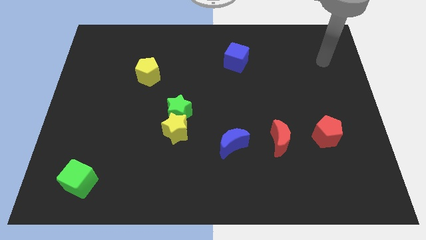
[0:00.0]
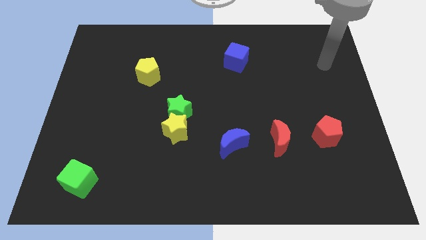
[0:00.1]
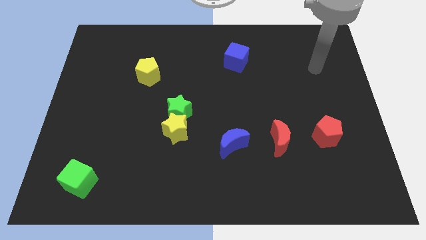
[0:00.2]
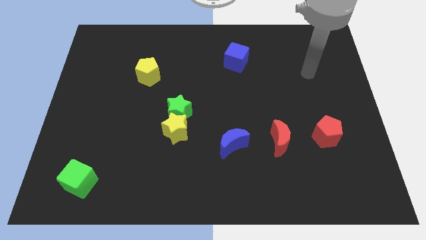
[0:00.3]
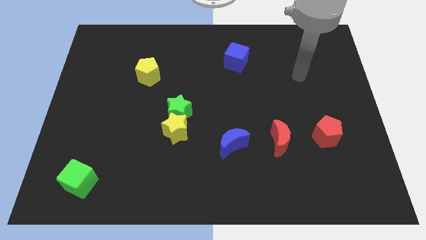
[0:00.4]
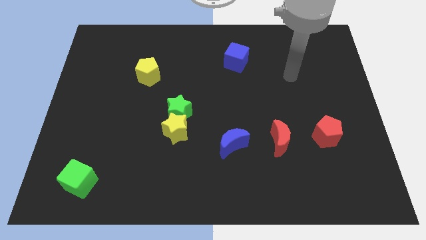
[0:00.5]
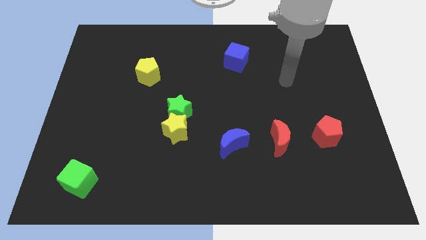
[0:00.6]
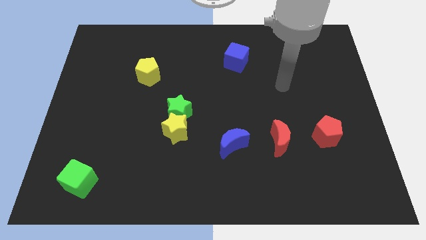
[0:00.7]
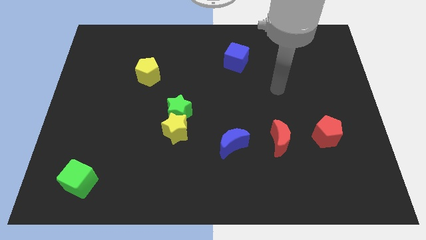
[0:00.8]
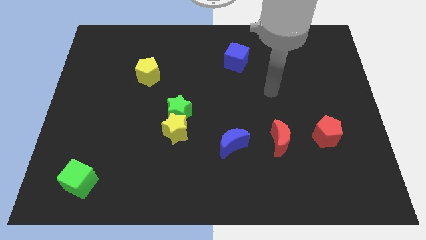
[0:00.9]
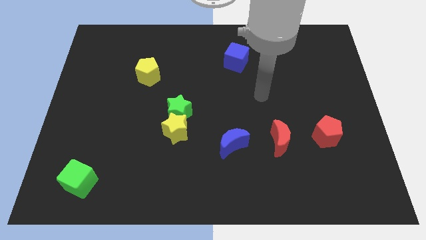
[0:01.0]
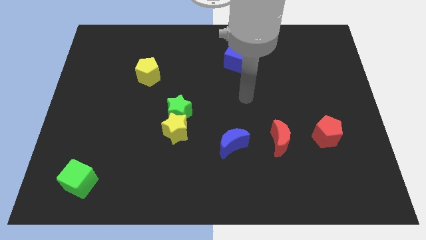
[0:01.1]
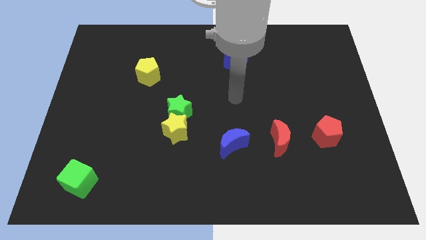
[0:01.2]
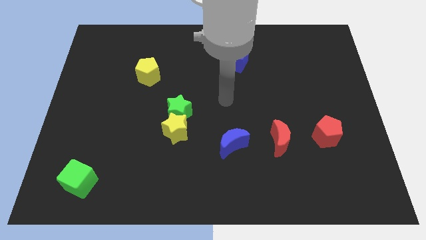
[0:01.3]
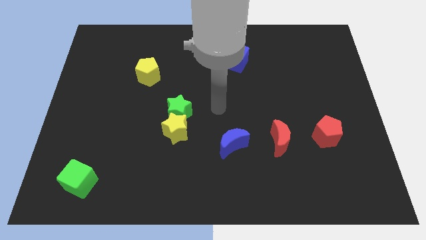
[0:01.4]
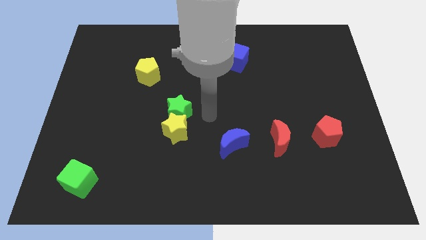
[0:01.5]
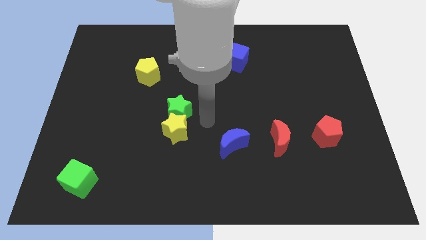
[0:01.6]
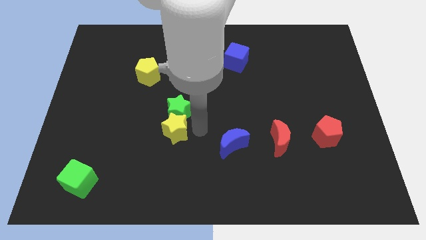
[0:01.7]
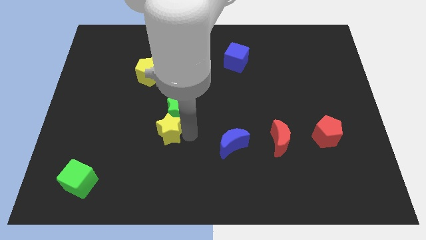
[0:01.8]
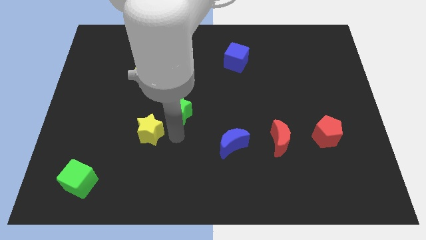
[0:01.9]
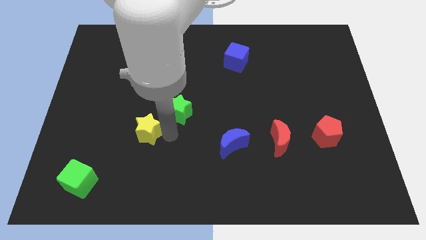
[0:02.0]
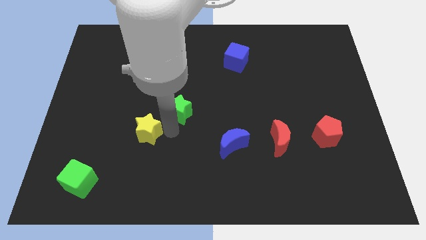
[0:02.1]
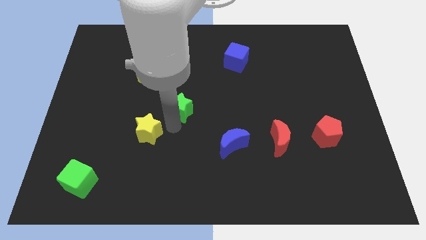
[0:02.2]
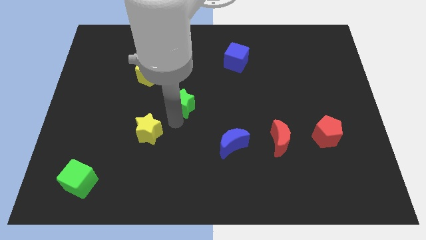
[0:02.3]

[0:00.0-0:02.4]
move the green star away from the yellow star

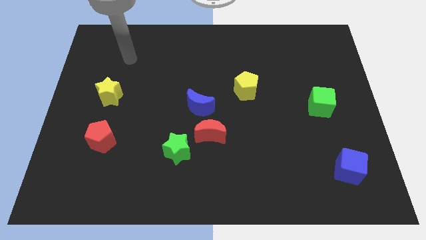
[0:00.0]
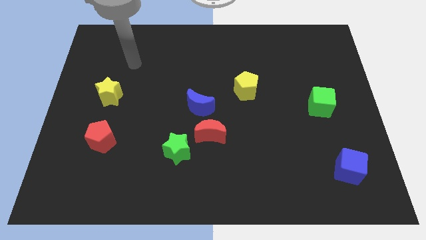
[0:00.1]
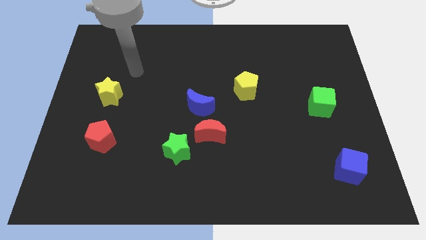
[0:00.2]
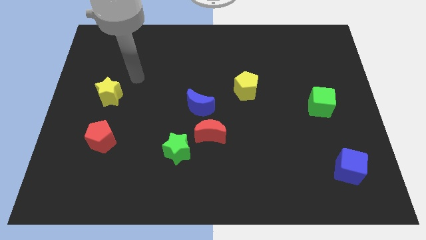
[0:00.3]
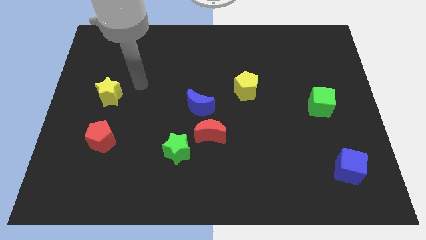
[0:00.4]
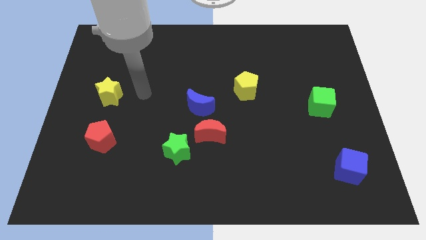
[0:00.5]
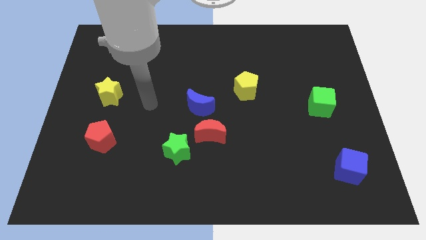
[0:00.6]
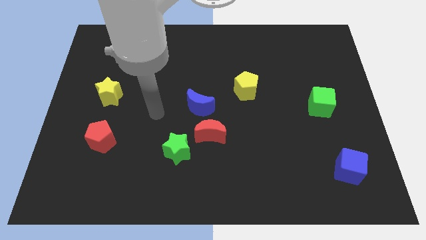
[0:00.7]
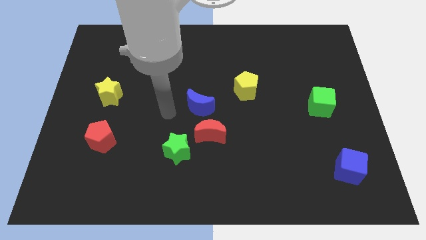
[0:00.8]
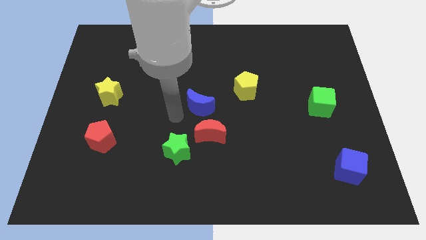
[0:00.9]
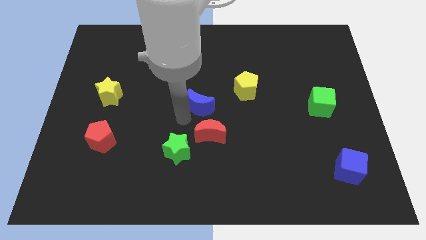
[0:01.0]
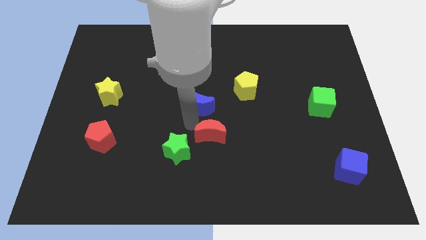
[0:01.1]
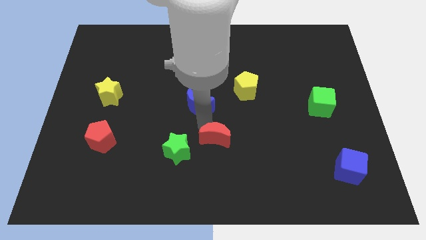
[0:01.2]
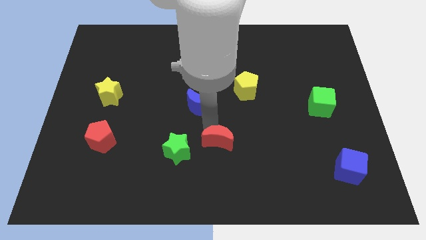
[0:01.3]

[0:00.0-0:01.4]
move the blue moon away from the red moon

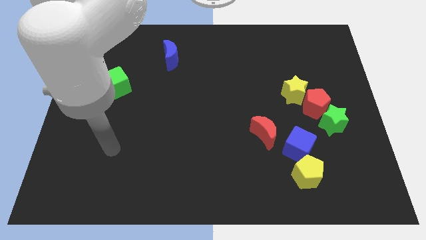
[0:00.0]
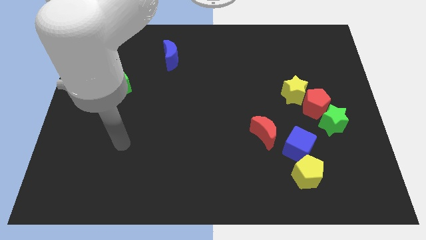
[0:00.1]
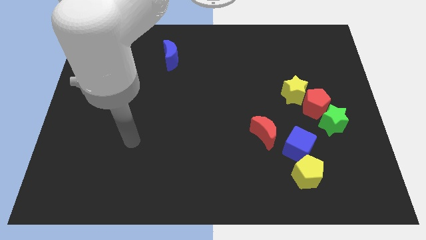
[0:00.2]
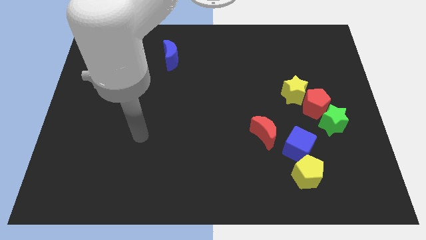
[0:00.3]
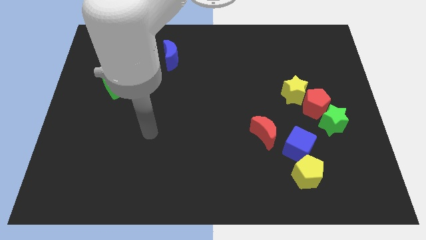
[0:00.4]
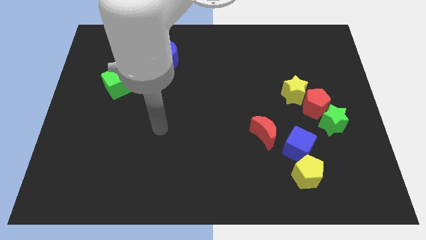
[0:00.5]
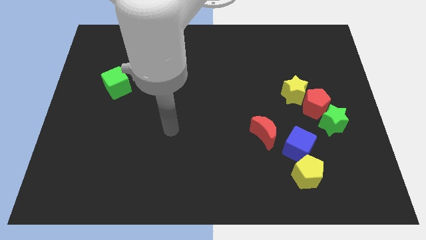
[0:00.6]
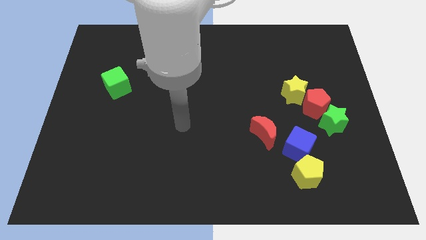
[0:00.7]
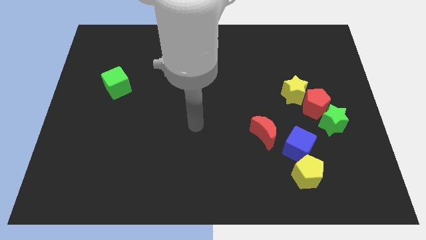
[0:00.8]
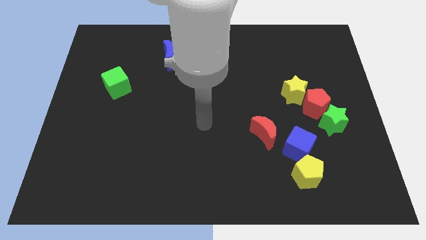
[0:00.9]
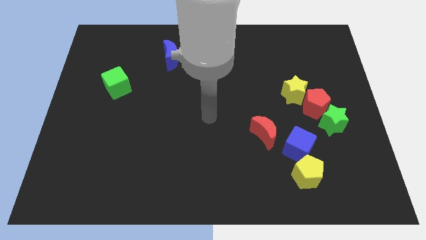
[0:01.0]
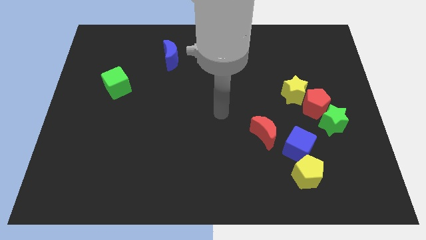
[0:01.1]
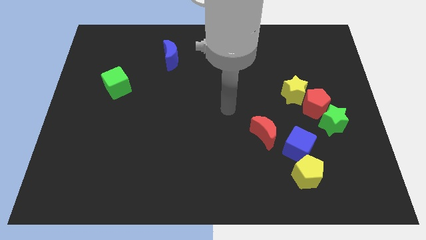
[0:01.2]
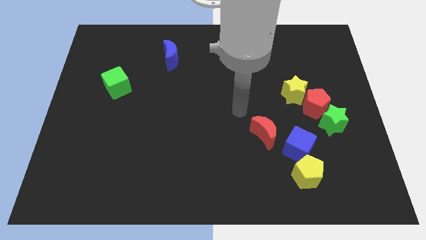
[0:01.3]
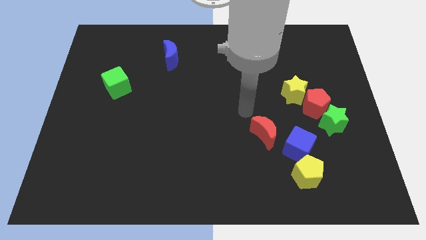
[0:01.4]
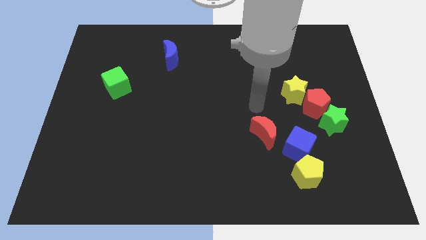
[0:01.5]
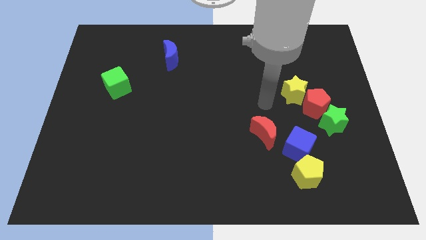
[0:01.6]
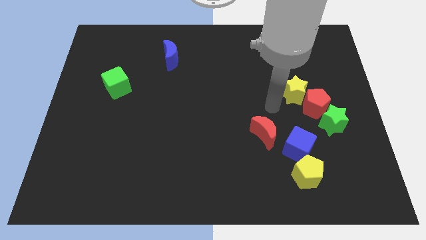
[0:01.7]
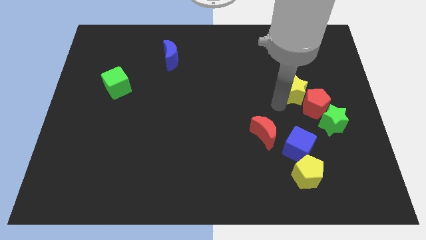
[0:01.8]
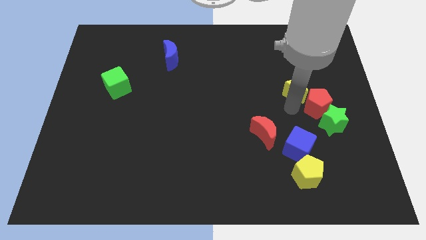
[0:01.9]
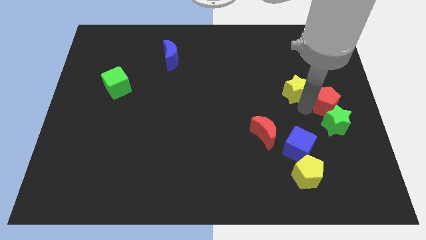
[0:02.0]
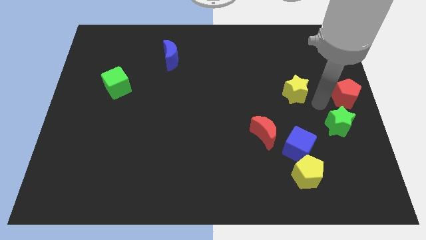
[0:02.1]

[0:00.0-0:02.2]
separate the yellow star from the red pentagon

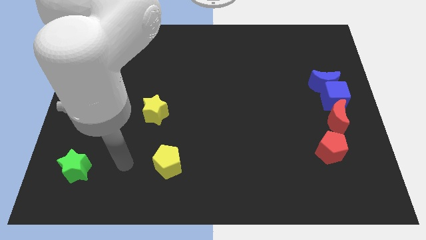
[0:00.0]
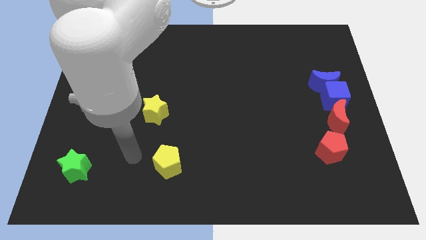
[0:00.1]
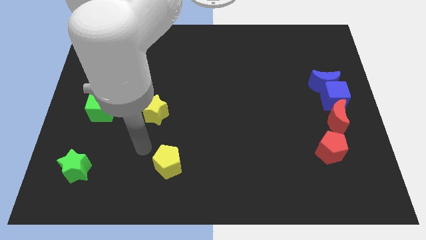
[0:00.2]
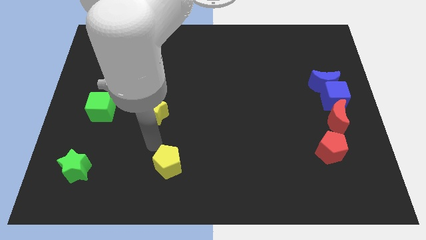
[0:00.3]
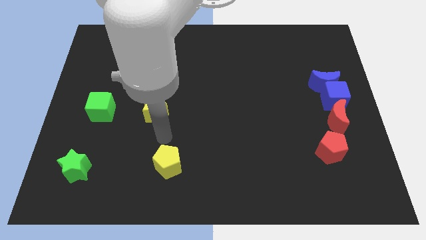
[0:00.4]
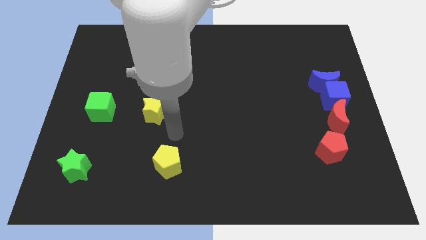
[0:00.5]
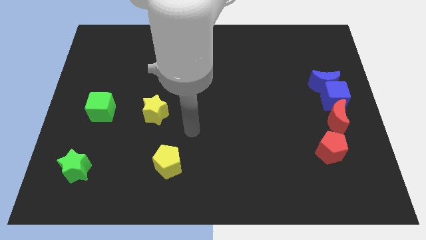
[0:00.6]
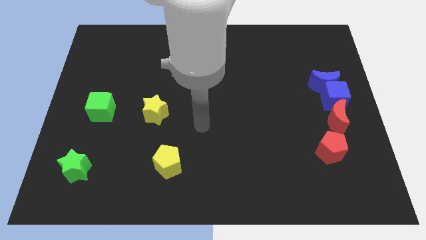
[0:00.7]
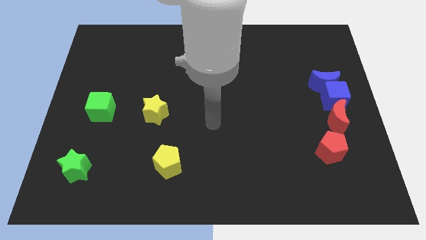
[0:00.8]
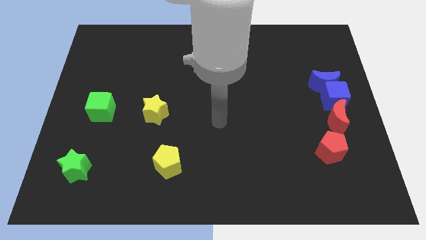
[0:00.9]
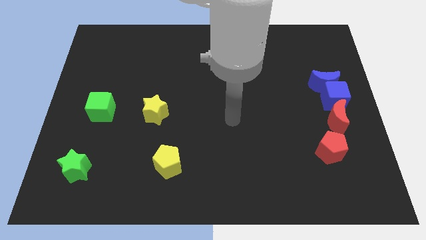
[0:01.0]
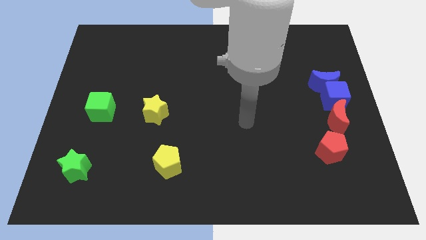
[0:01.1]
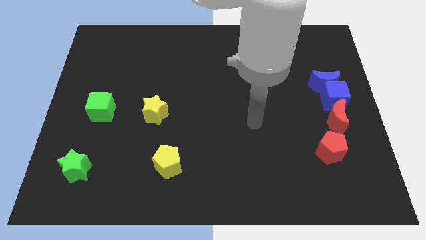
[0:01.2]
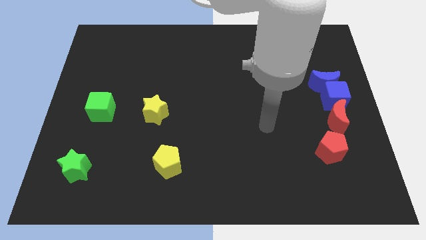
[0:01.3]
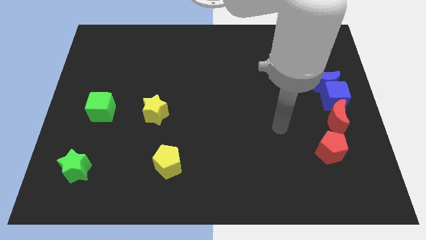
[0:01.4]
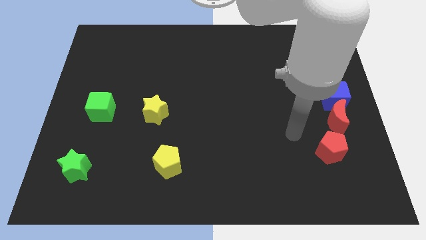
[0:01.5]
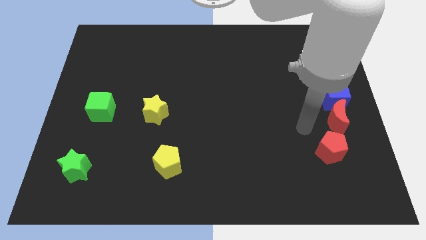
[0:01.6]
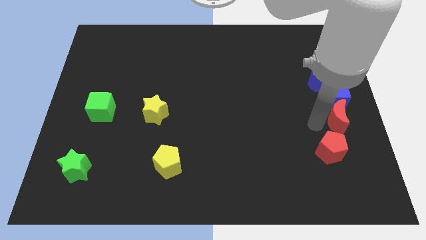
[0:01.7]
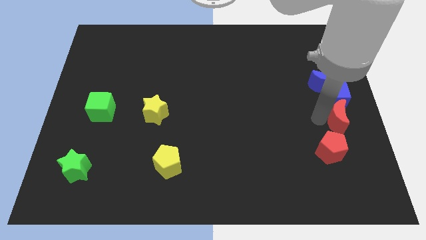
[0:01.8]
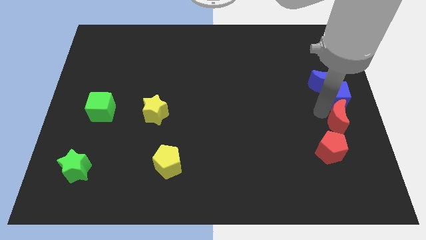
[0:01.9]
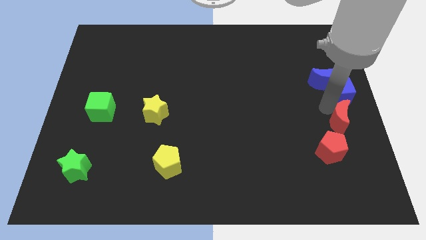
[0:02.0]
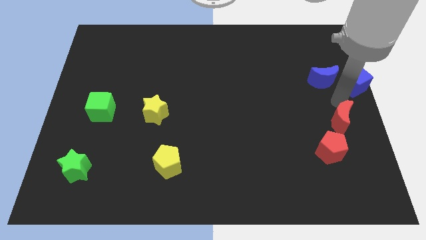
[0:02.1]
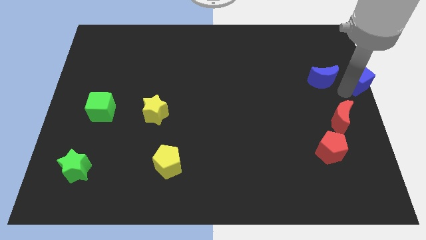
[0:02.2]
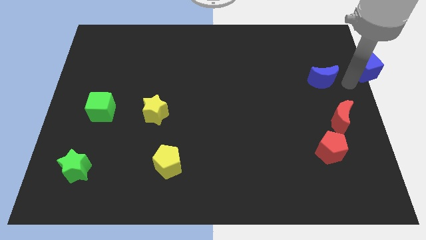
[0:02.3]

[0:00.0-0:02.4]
pull the blue moon apart from the blue cube

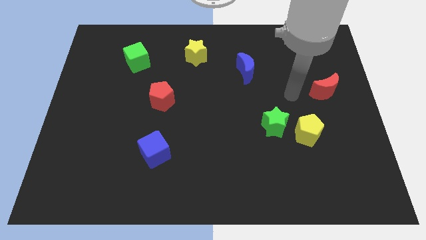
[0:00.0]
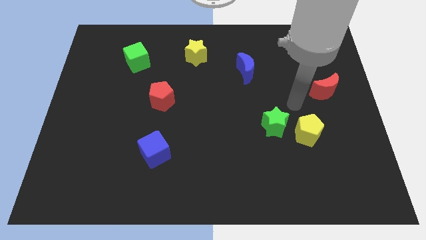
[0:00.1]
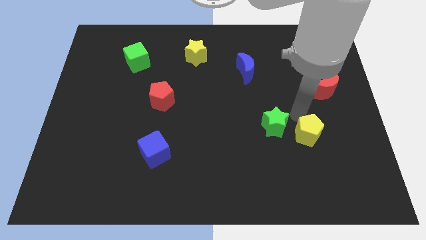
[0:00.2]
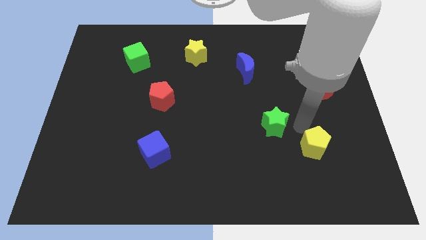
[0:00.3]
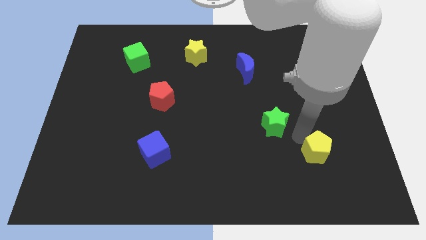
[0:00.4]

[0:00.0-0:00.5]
separate the green star from the yellow pentagon

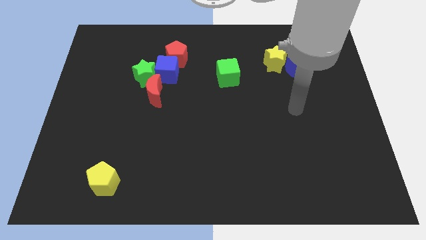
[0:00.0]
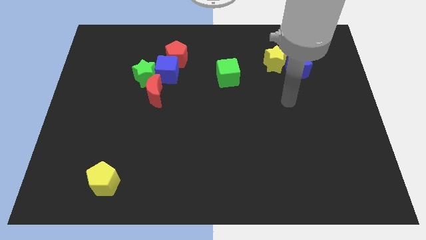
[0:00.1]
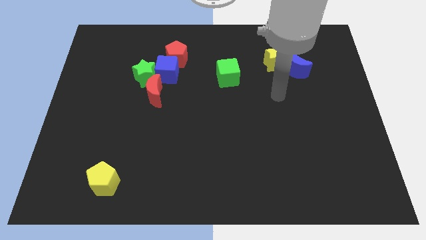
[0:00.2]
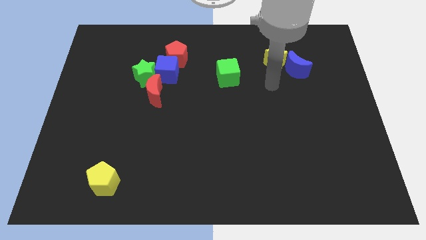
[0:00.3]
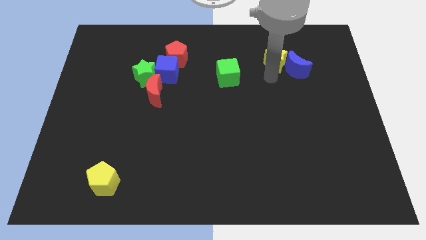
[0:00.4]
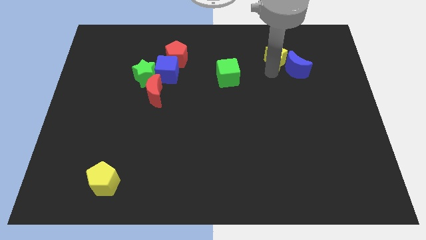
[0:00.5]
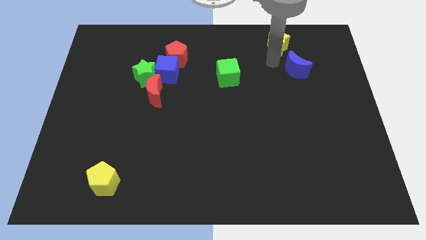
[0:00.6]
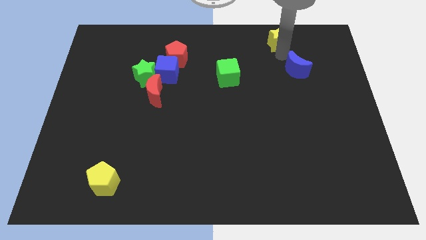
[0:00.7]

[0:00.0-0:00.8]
pull the blue moon apart from the yellow star
